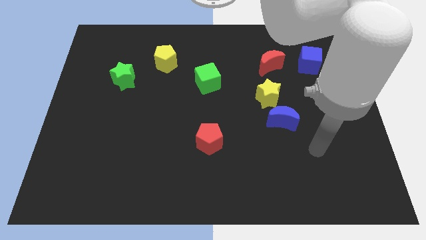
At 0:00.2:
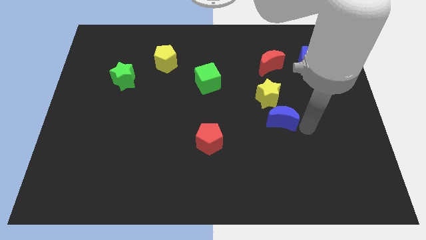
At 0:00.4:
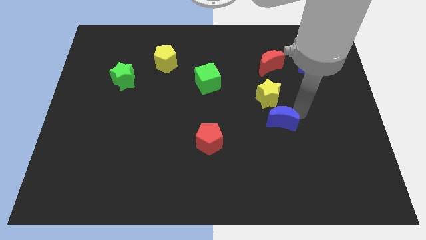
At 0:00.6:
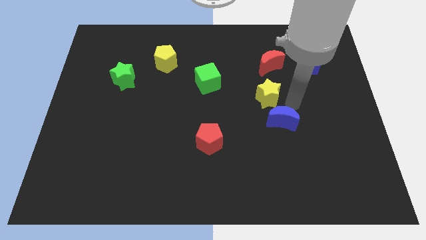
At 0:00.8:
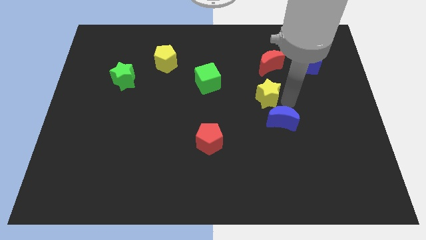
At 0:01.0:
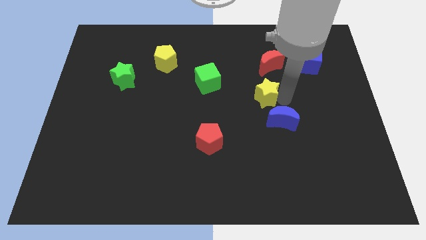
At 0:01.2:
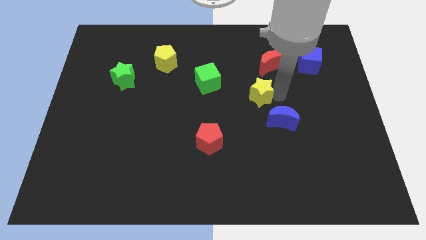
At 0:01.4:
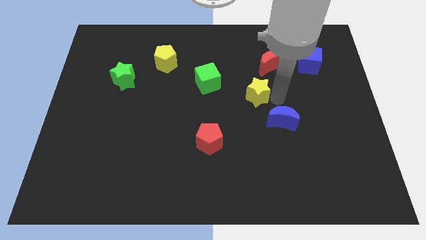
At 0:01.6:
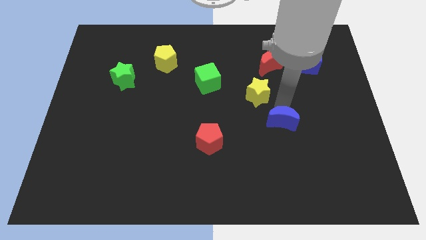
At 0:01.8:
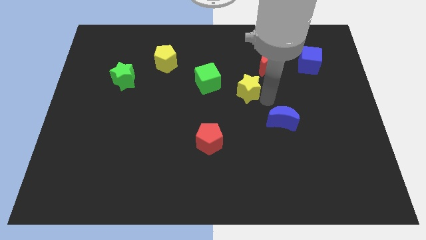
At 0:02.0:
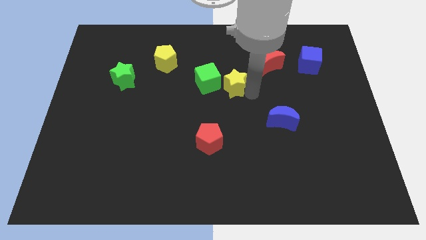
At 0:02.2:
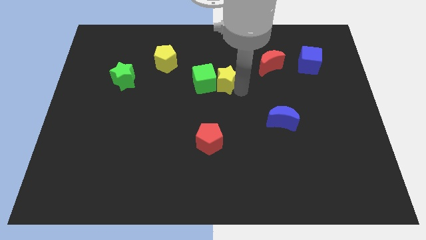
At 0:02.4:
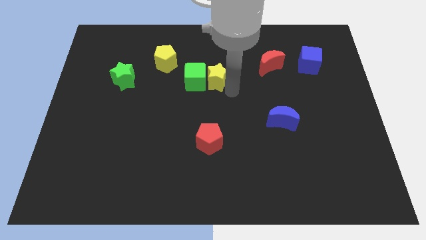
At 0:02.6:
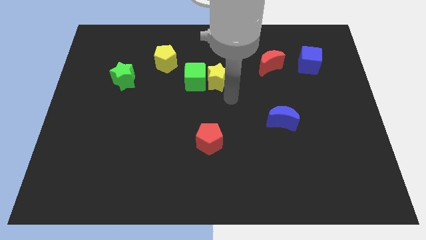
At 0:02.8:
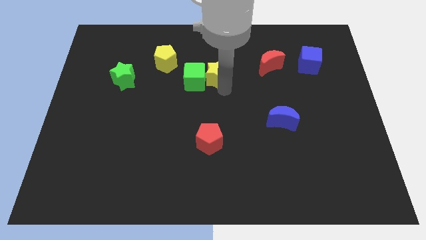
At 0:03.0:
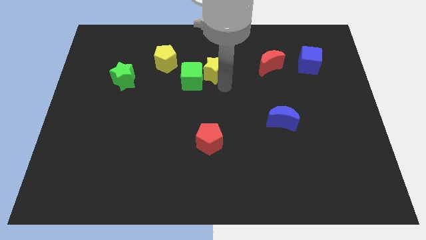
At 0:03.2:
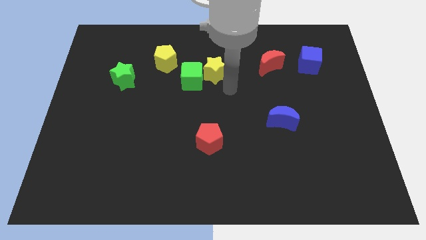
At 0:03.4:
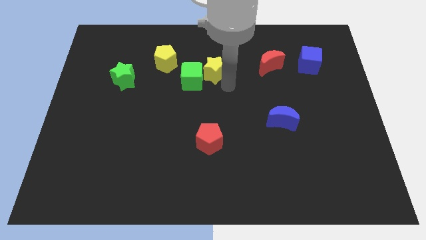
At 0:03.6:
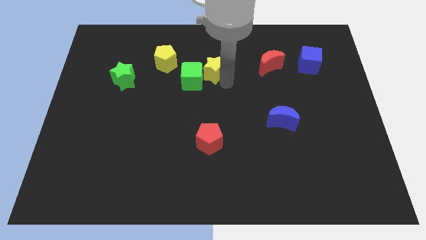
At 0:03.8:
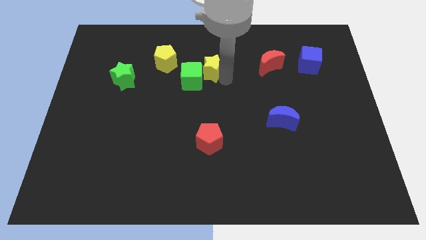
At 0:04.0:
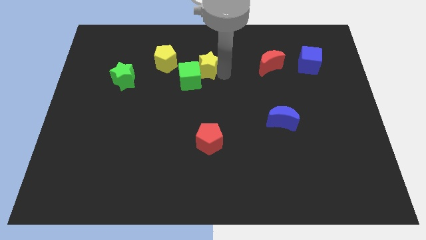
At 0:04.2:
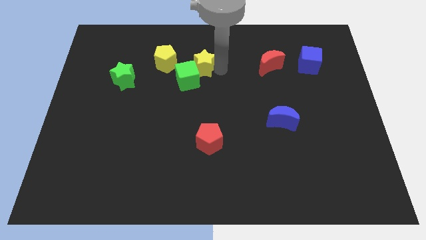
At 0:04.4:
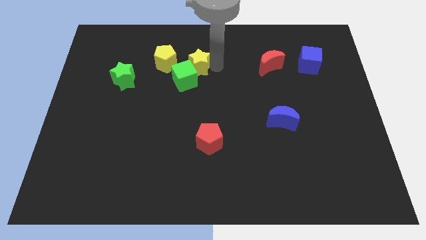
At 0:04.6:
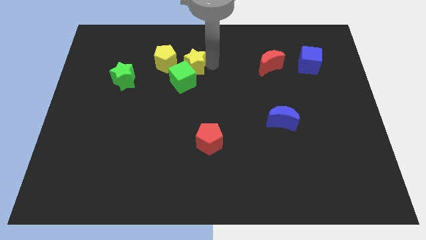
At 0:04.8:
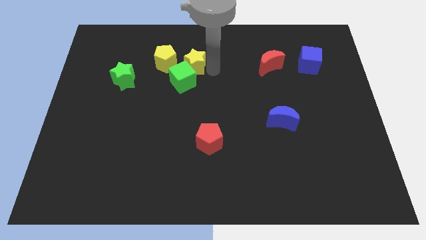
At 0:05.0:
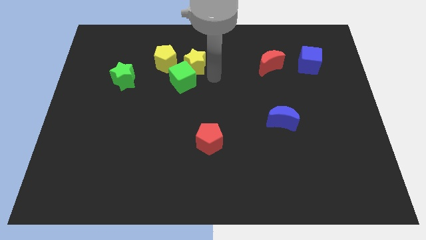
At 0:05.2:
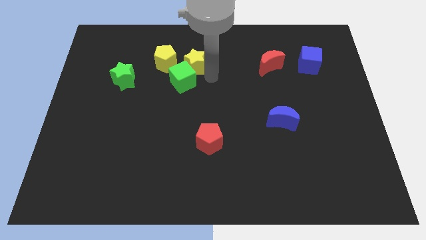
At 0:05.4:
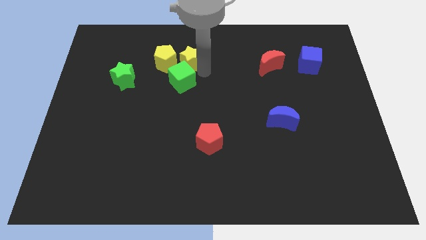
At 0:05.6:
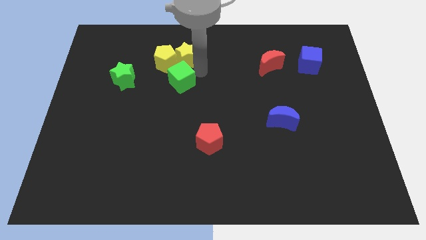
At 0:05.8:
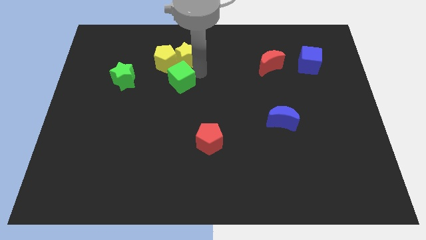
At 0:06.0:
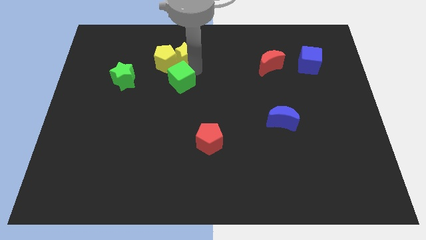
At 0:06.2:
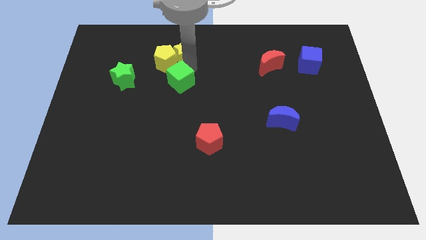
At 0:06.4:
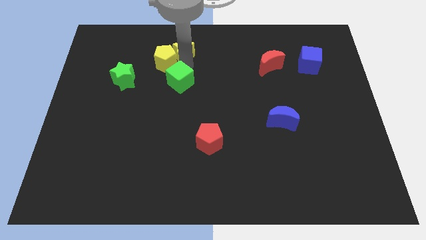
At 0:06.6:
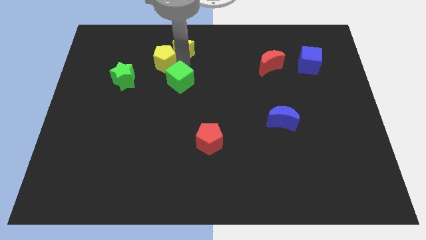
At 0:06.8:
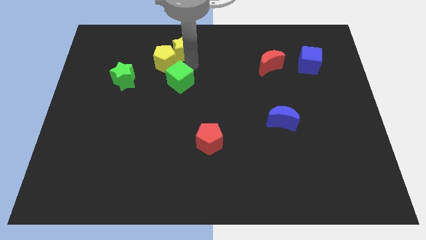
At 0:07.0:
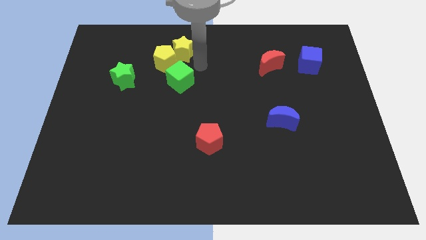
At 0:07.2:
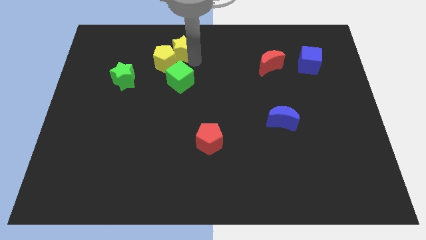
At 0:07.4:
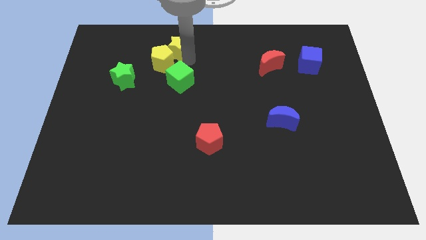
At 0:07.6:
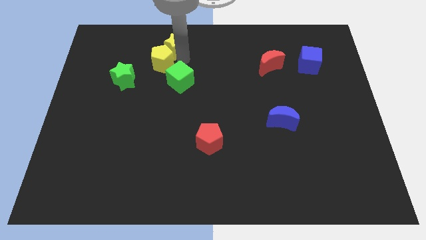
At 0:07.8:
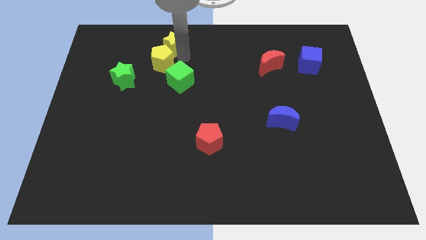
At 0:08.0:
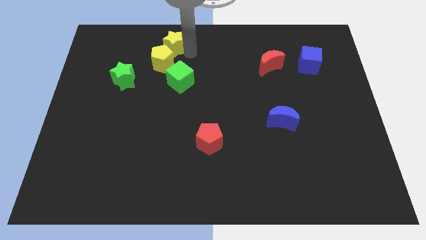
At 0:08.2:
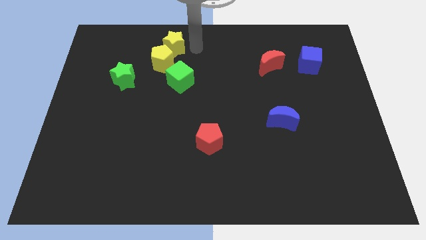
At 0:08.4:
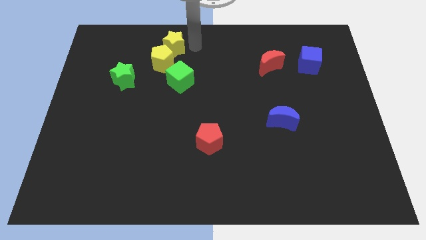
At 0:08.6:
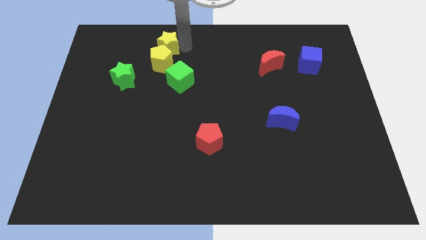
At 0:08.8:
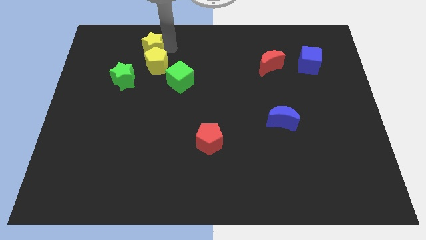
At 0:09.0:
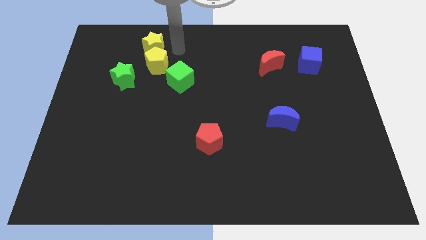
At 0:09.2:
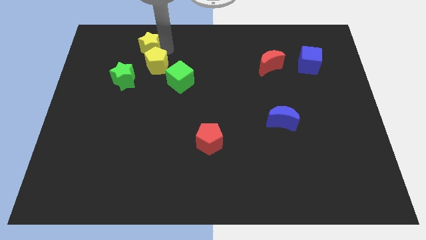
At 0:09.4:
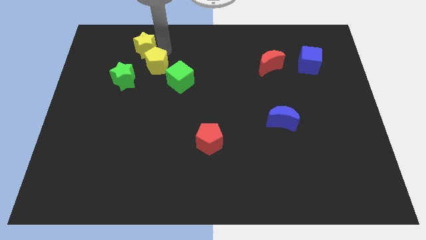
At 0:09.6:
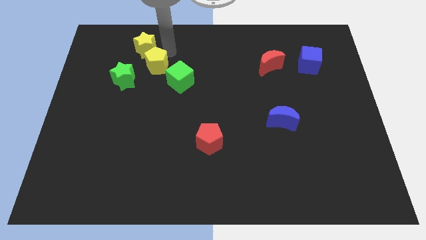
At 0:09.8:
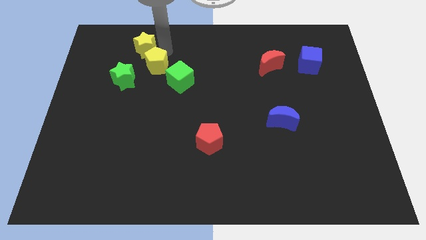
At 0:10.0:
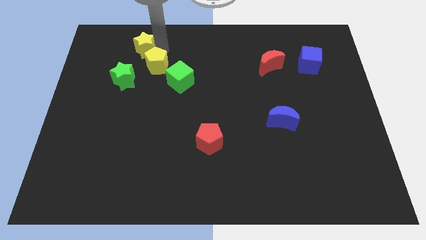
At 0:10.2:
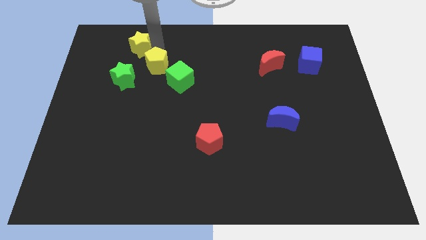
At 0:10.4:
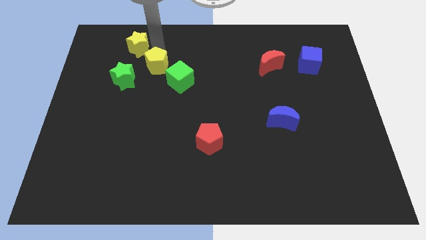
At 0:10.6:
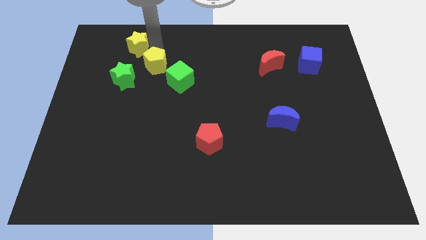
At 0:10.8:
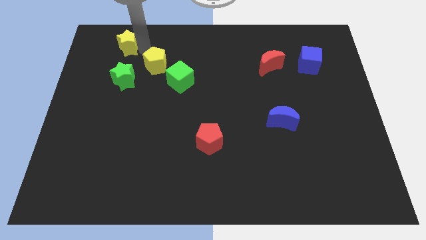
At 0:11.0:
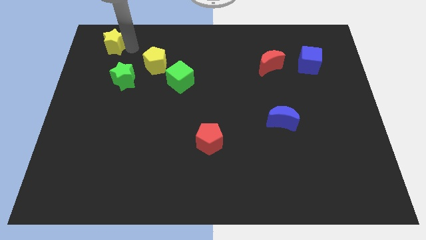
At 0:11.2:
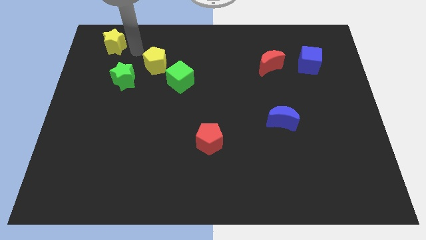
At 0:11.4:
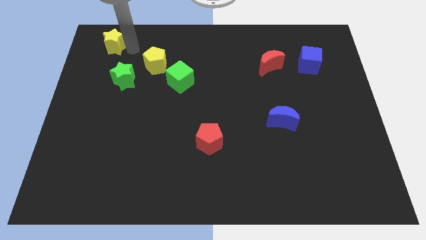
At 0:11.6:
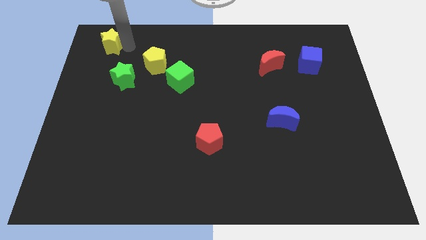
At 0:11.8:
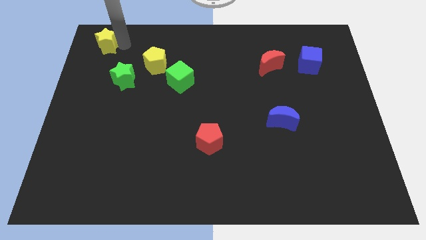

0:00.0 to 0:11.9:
move the yellow star to the top left corner
